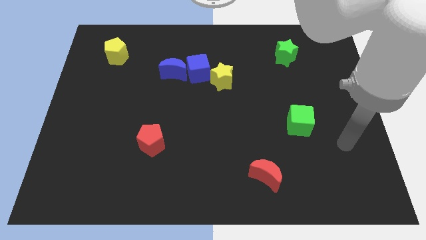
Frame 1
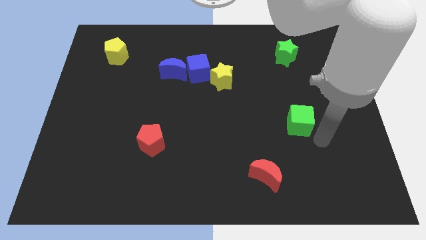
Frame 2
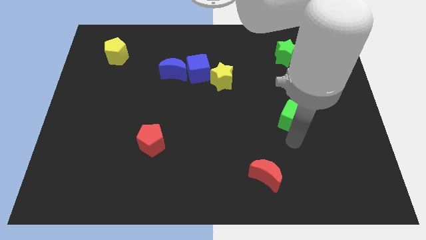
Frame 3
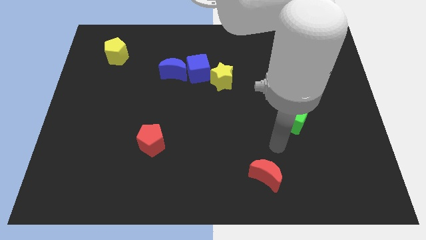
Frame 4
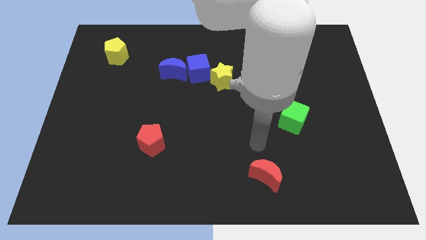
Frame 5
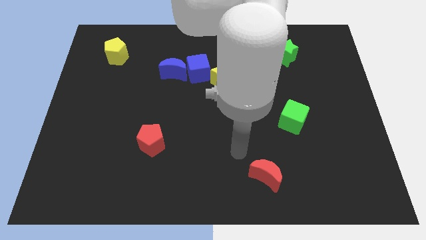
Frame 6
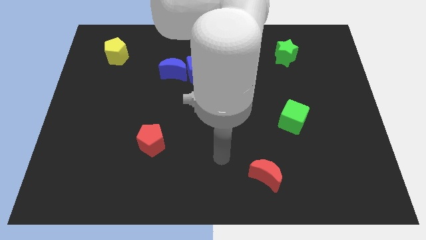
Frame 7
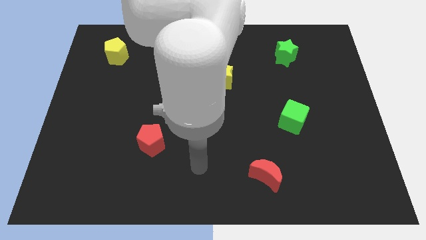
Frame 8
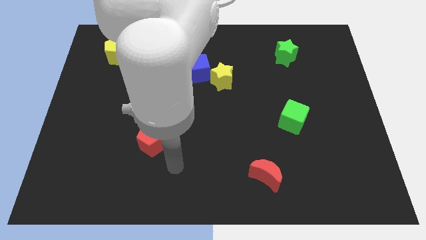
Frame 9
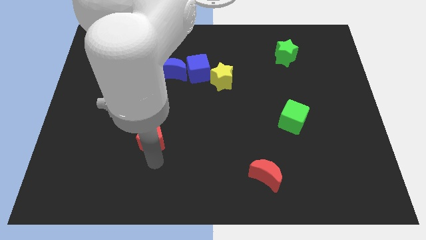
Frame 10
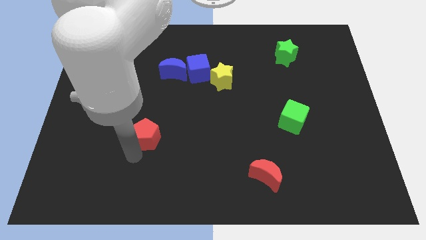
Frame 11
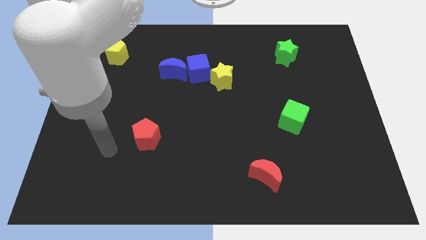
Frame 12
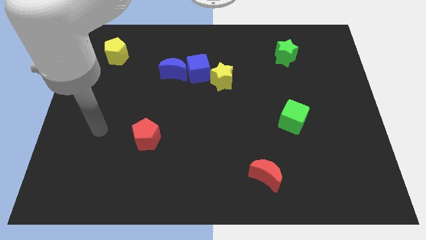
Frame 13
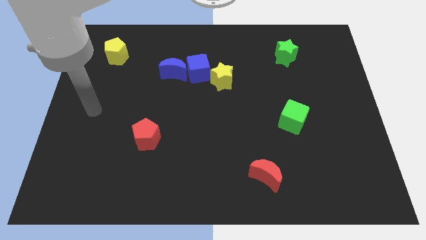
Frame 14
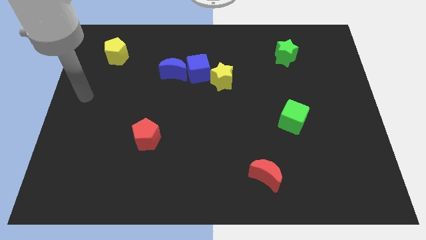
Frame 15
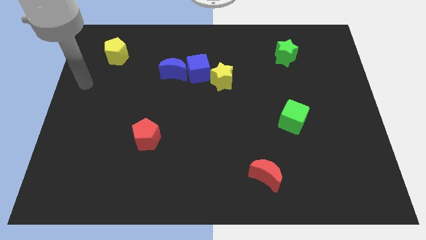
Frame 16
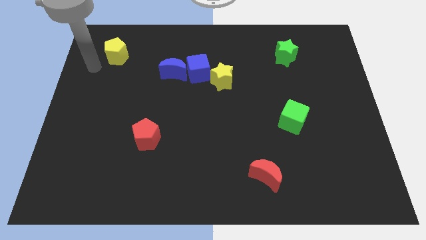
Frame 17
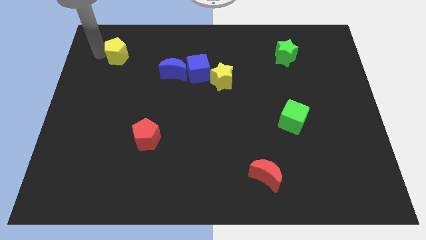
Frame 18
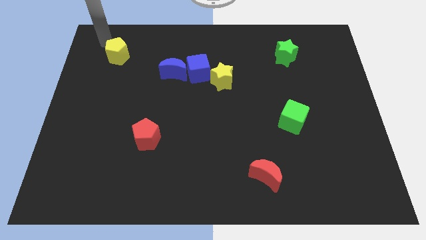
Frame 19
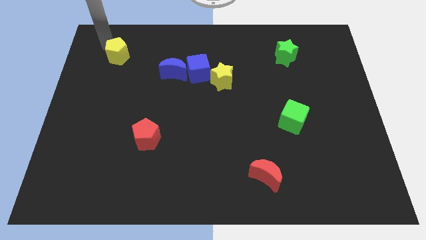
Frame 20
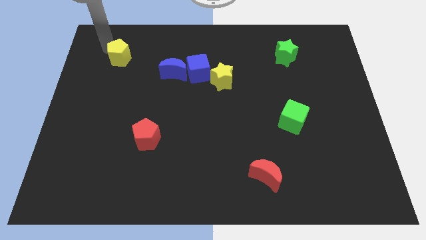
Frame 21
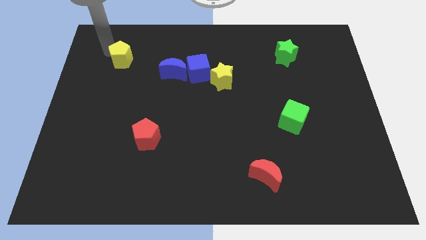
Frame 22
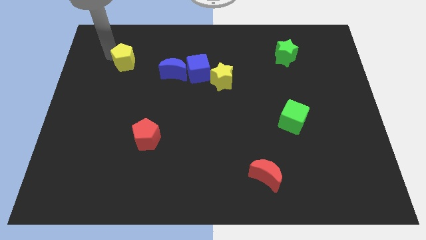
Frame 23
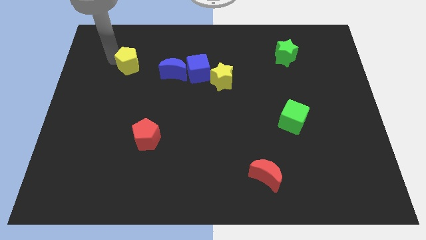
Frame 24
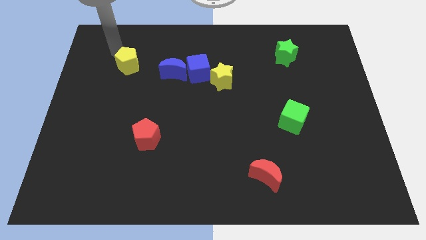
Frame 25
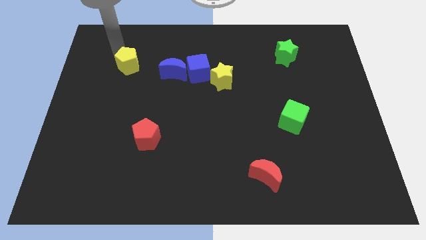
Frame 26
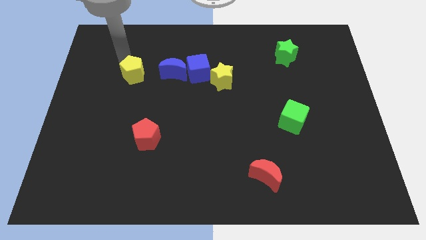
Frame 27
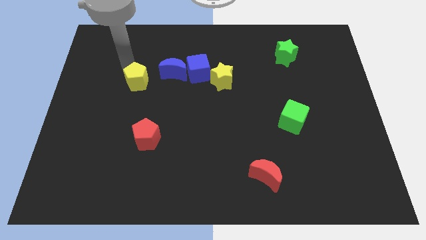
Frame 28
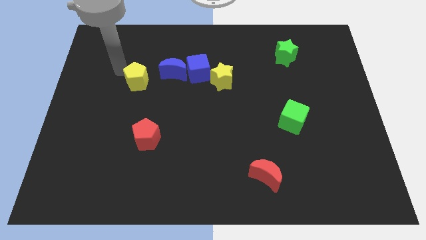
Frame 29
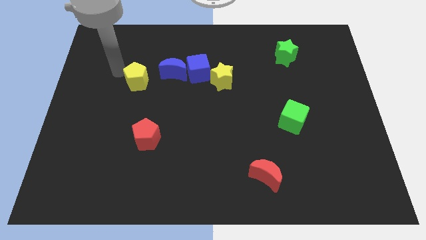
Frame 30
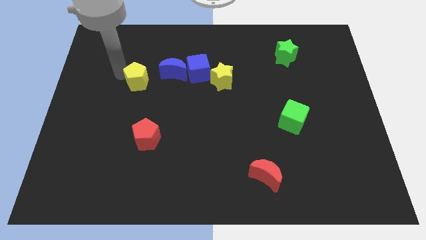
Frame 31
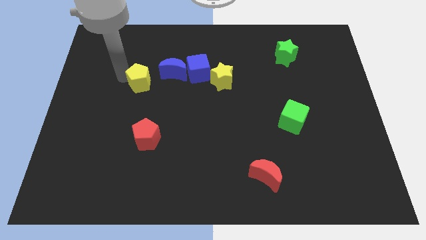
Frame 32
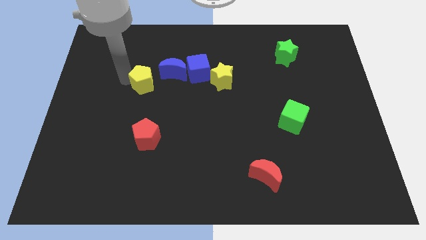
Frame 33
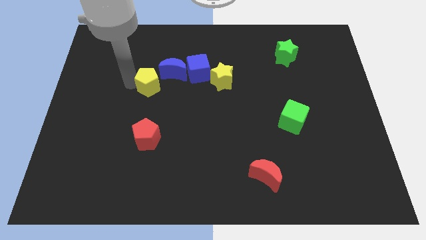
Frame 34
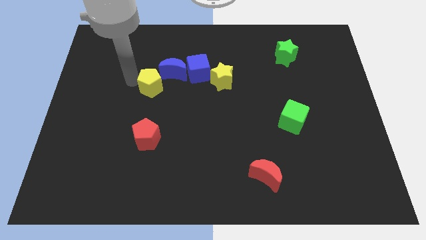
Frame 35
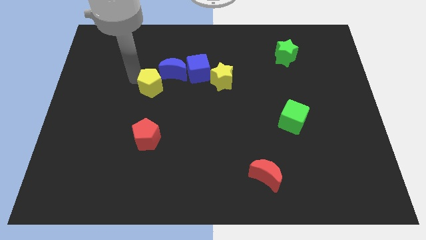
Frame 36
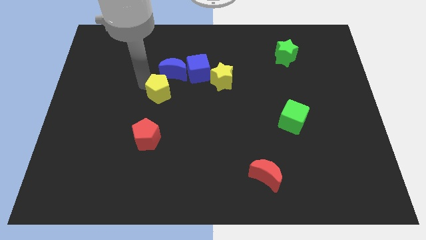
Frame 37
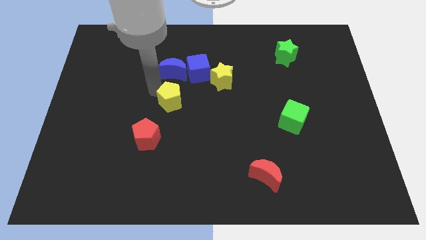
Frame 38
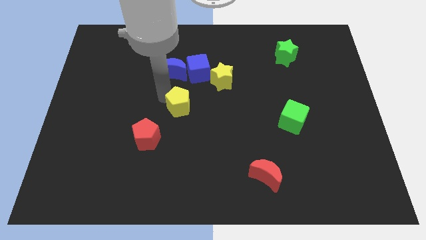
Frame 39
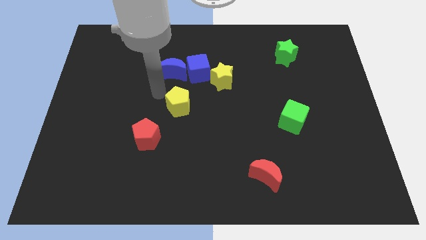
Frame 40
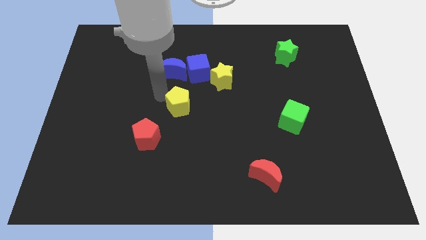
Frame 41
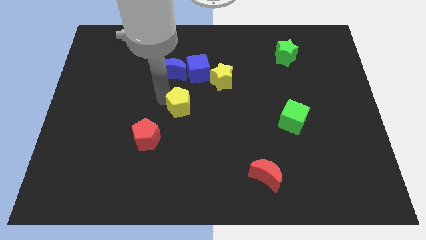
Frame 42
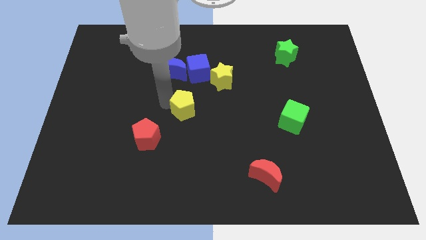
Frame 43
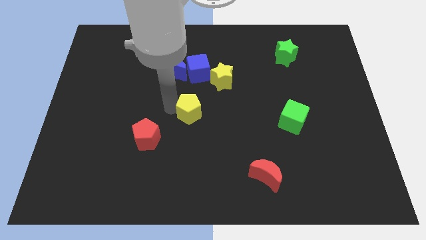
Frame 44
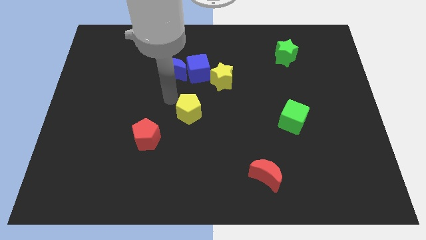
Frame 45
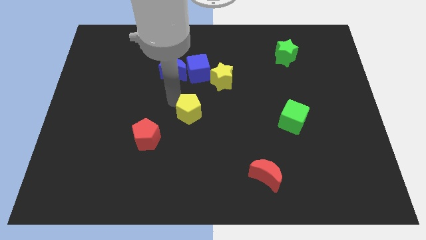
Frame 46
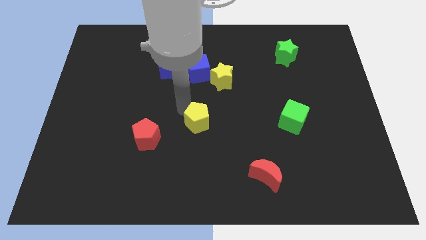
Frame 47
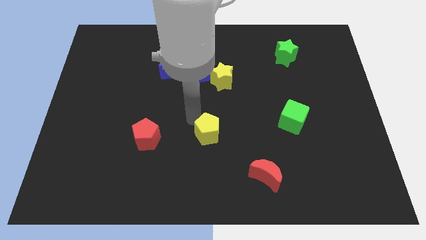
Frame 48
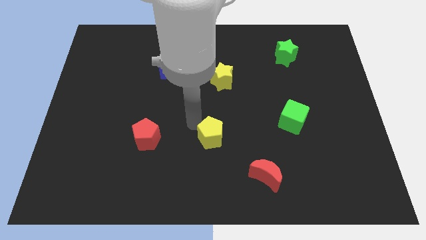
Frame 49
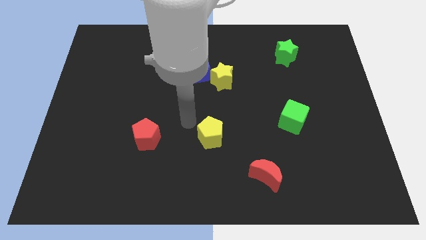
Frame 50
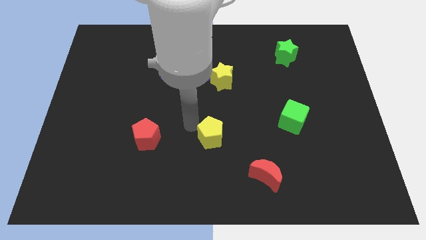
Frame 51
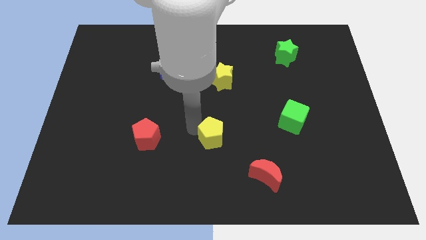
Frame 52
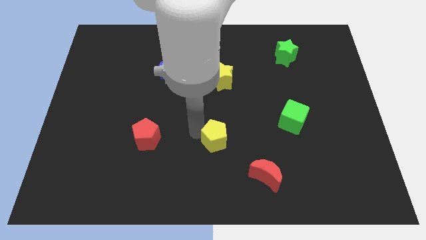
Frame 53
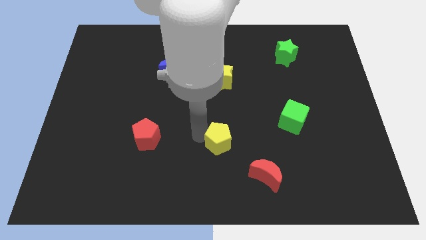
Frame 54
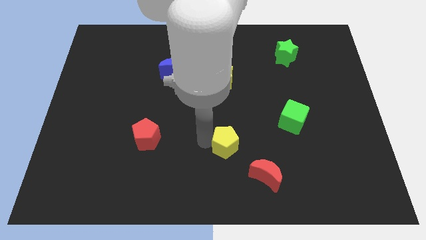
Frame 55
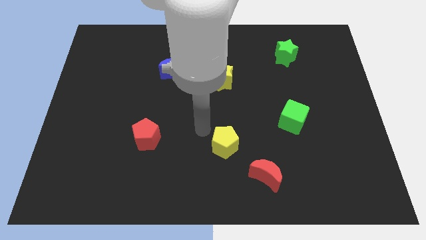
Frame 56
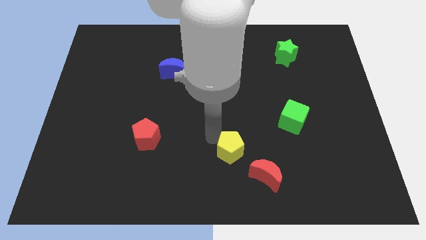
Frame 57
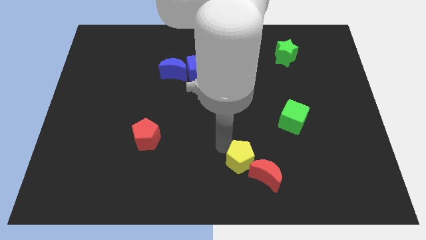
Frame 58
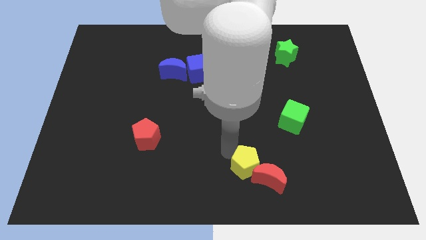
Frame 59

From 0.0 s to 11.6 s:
slide the yellow pentagon close to the red moon

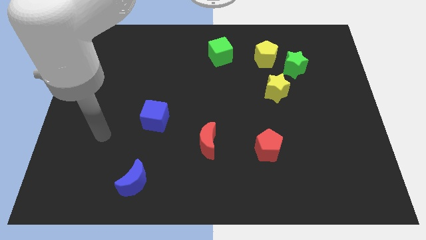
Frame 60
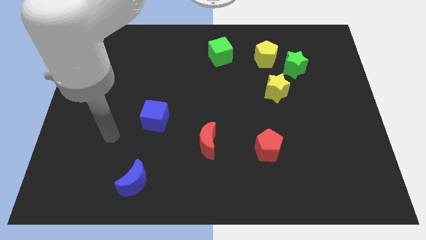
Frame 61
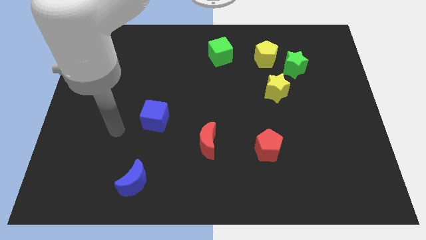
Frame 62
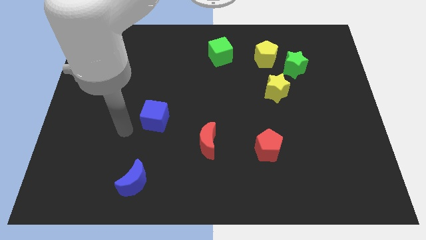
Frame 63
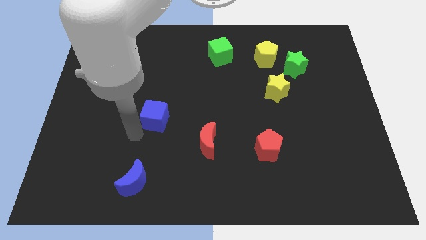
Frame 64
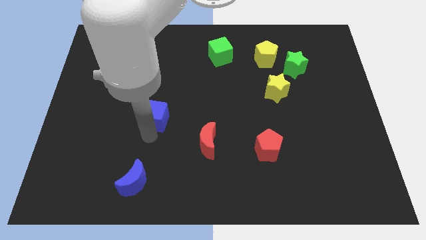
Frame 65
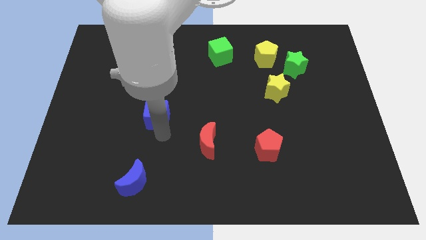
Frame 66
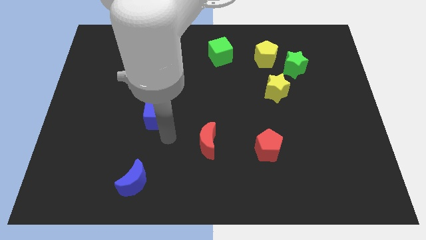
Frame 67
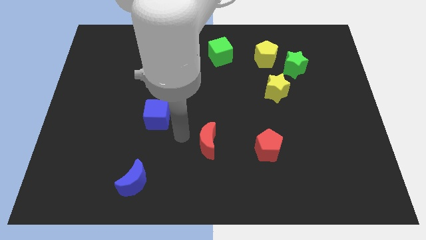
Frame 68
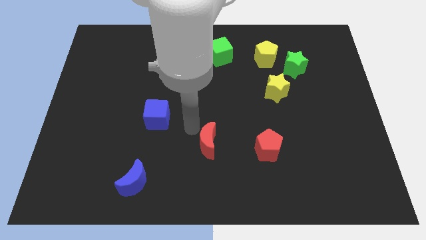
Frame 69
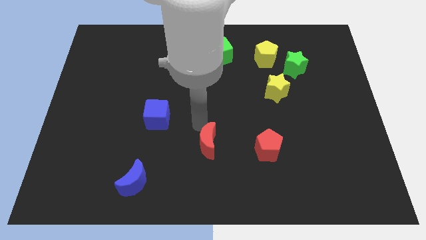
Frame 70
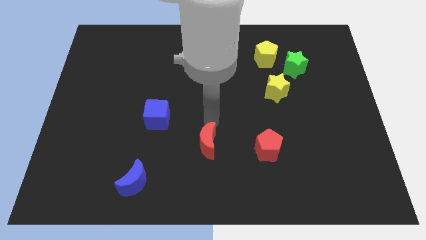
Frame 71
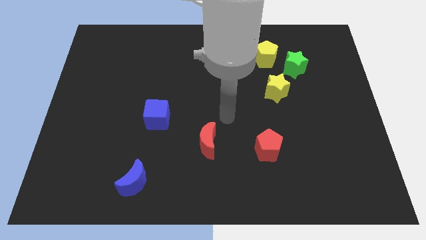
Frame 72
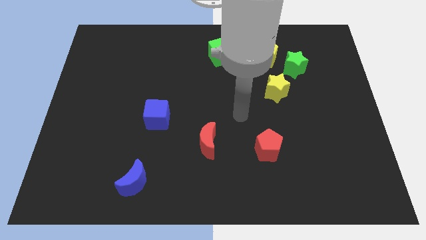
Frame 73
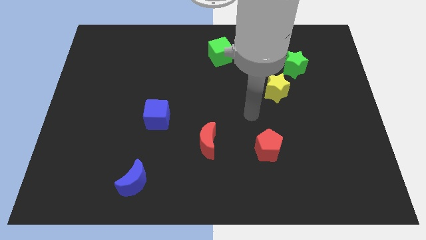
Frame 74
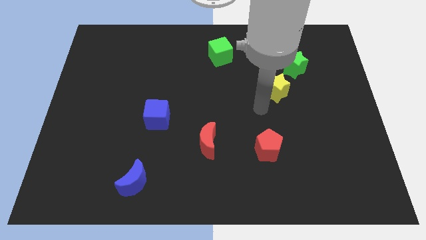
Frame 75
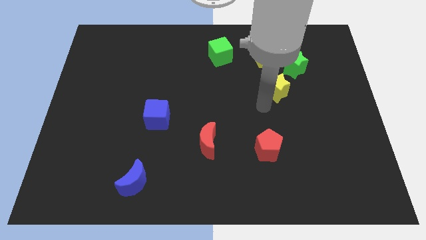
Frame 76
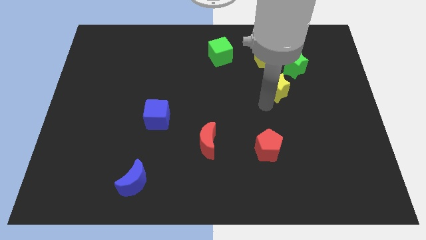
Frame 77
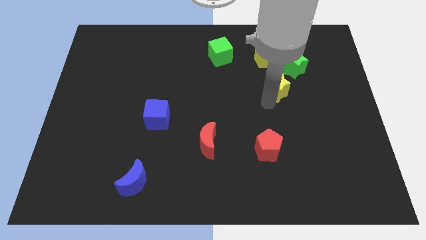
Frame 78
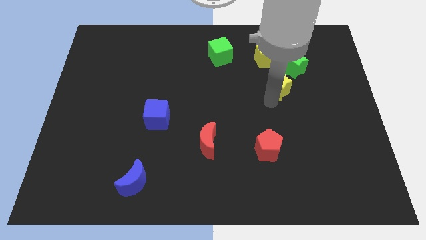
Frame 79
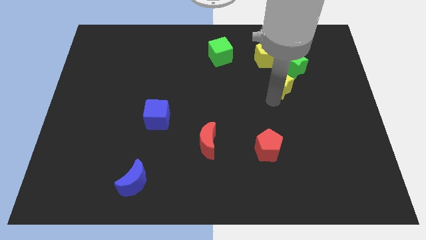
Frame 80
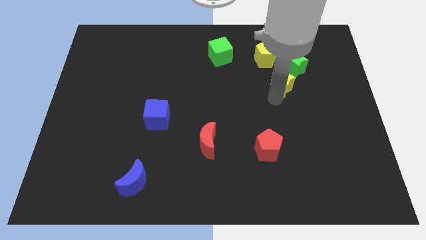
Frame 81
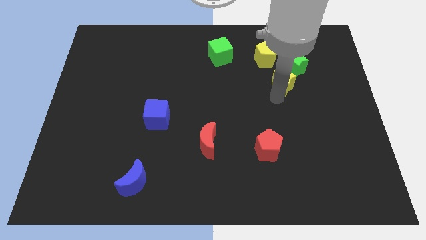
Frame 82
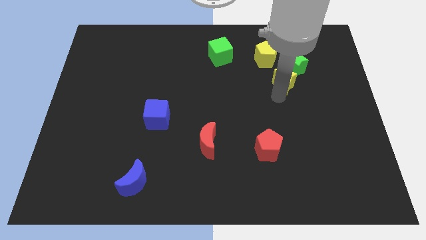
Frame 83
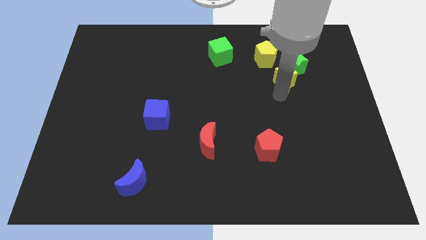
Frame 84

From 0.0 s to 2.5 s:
move the yellow star to the green star
